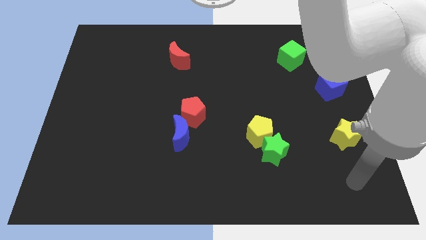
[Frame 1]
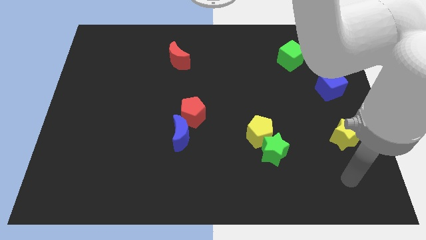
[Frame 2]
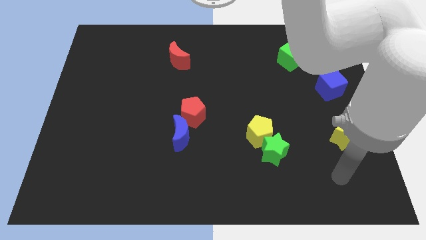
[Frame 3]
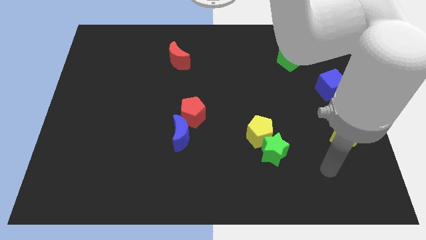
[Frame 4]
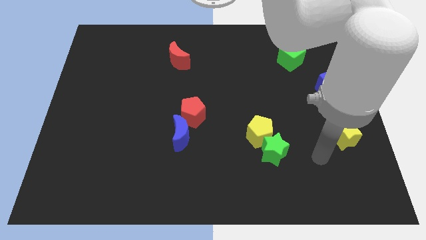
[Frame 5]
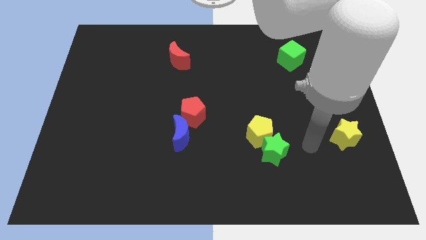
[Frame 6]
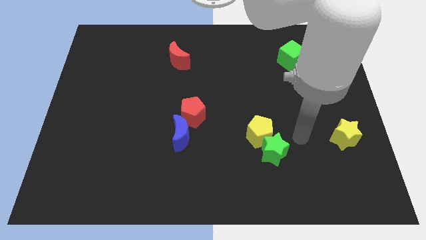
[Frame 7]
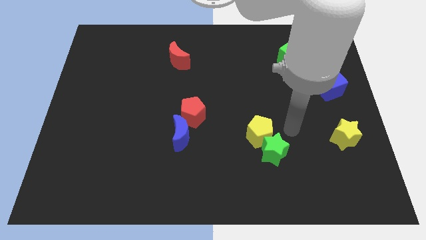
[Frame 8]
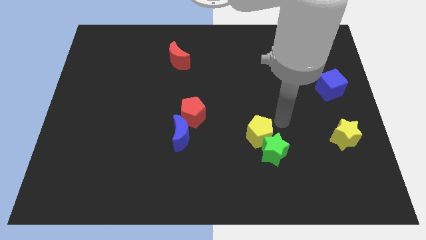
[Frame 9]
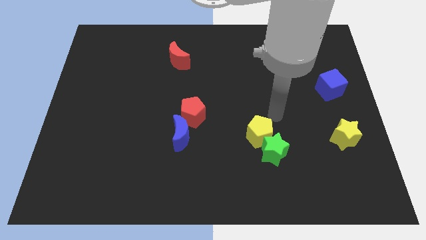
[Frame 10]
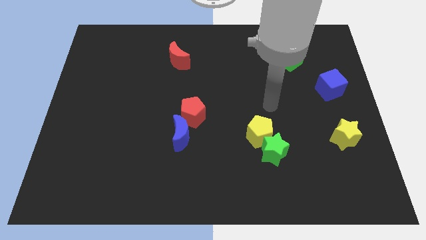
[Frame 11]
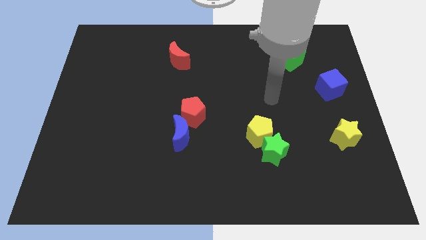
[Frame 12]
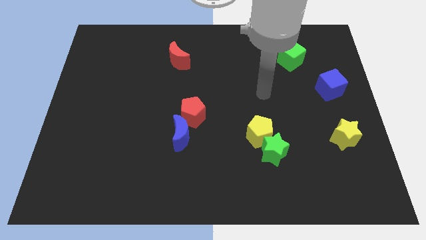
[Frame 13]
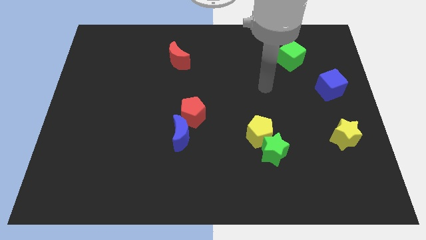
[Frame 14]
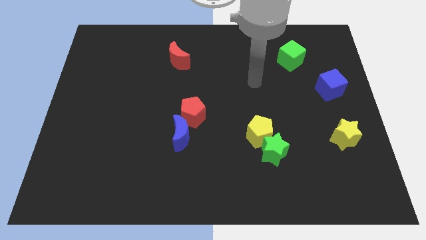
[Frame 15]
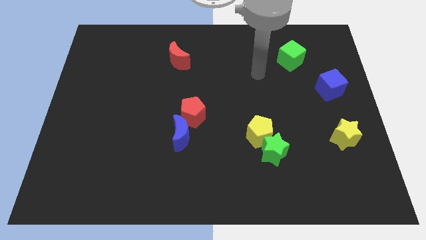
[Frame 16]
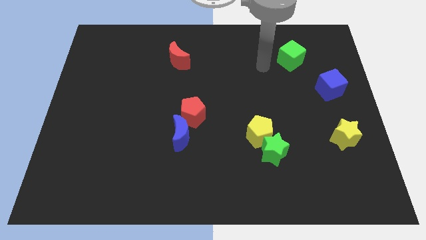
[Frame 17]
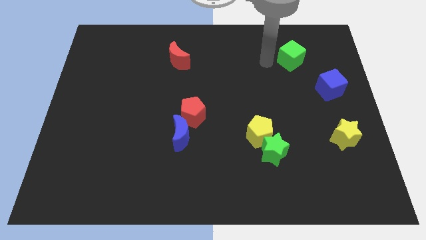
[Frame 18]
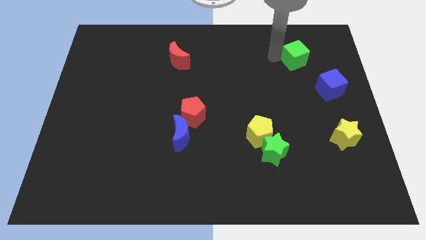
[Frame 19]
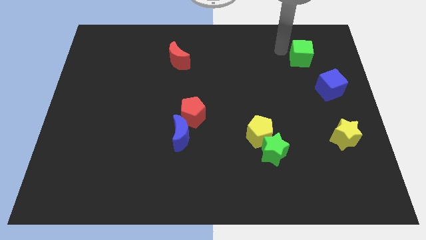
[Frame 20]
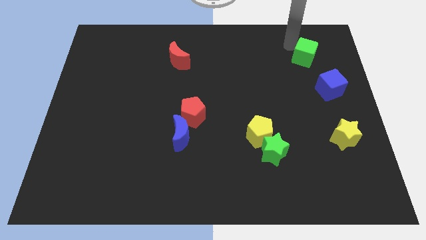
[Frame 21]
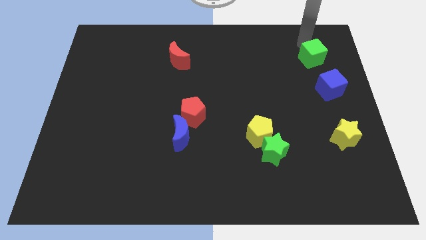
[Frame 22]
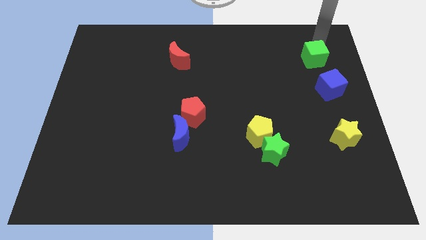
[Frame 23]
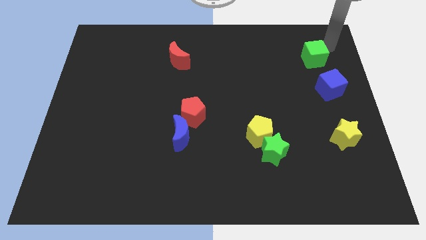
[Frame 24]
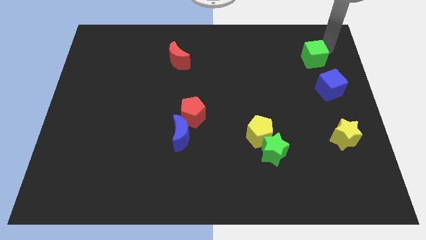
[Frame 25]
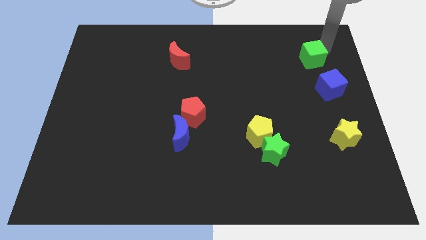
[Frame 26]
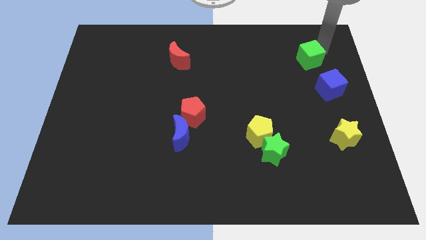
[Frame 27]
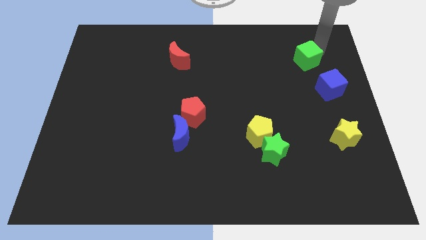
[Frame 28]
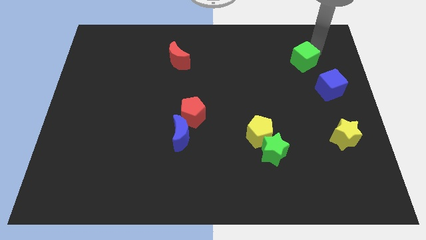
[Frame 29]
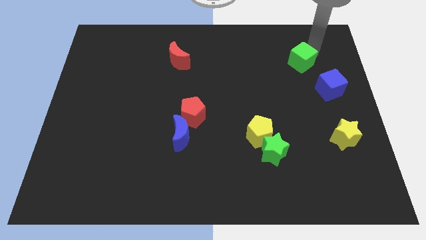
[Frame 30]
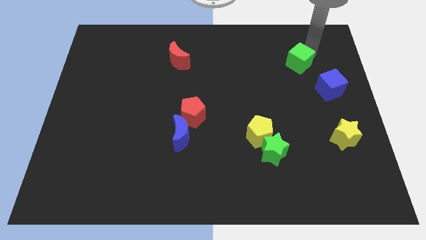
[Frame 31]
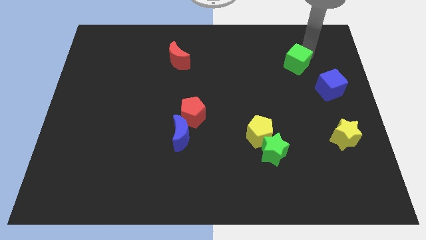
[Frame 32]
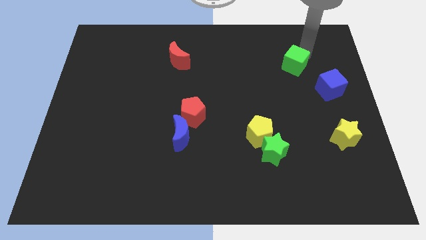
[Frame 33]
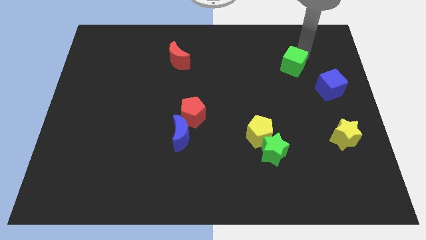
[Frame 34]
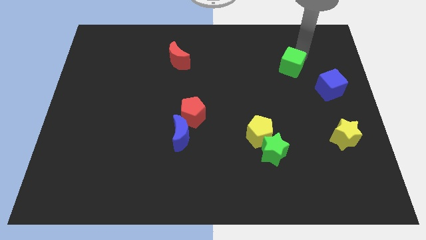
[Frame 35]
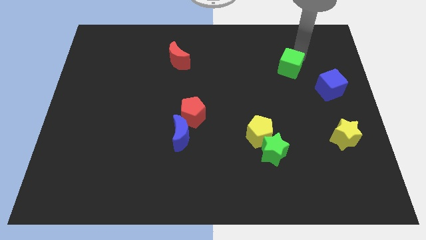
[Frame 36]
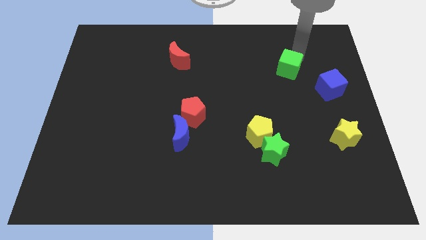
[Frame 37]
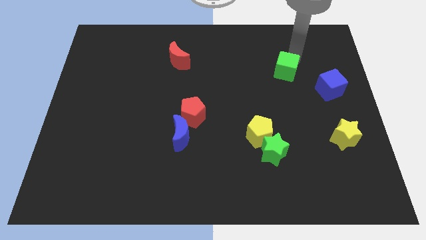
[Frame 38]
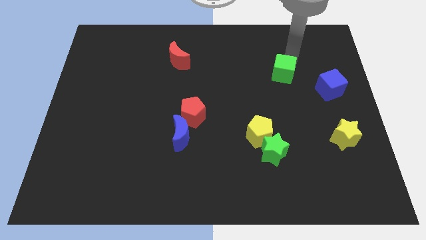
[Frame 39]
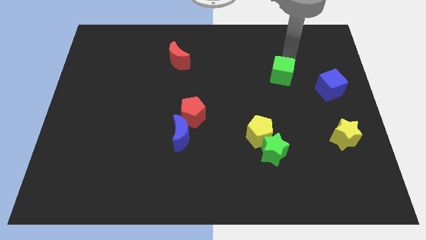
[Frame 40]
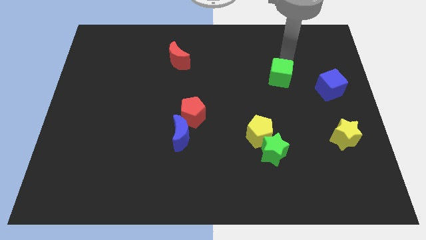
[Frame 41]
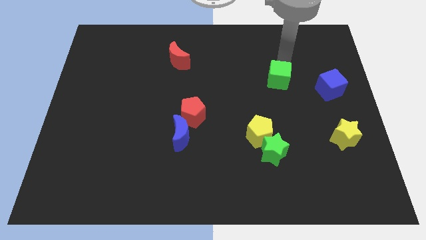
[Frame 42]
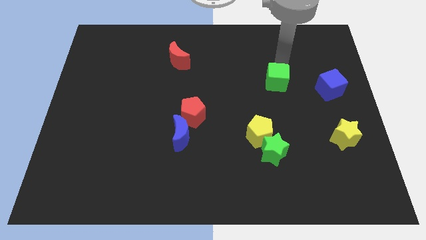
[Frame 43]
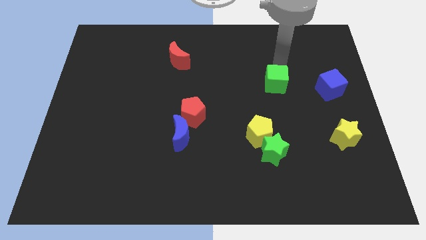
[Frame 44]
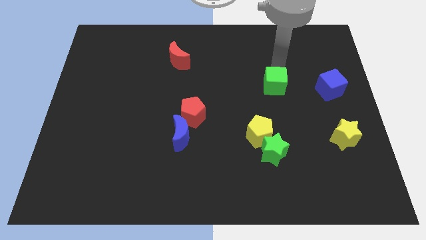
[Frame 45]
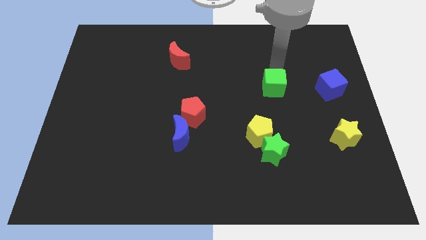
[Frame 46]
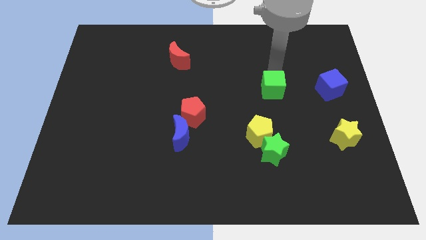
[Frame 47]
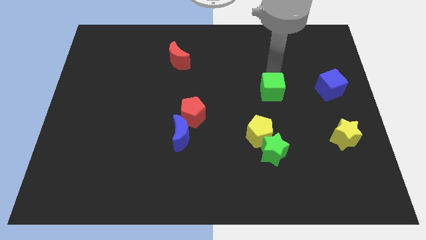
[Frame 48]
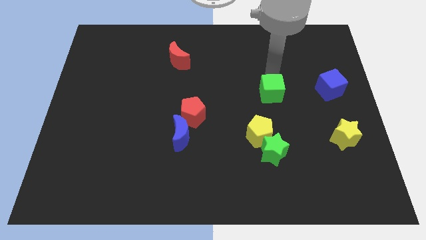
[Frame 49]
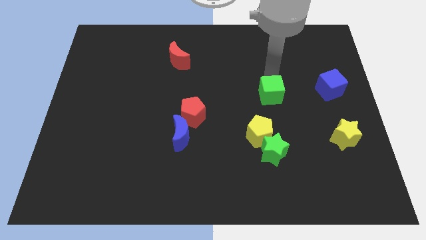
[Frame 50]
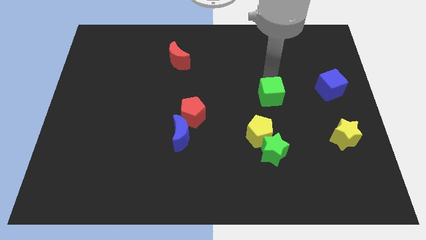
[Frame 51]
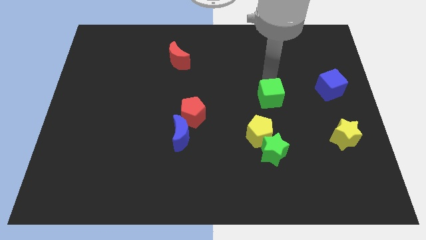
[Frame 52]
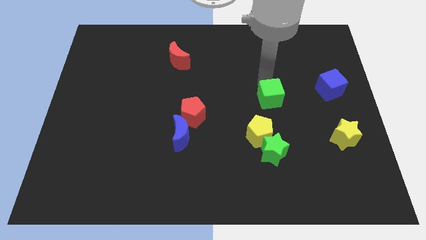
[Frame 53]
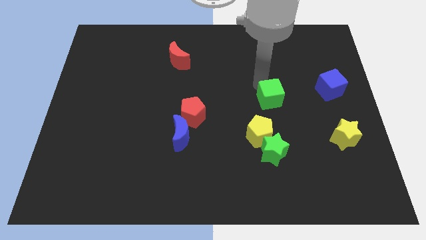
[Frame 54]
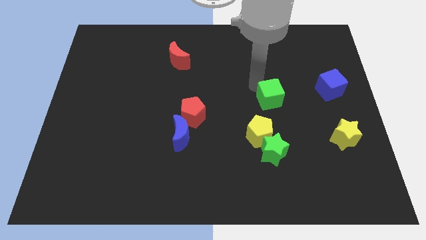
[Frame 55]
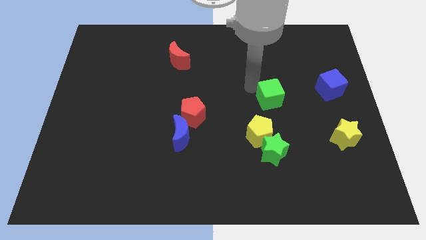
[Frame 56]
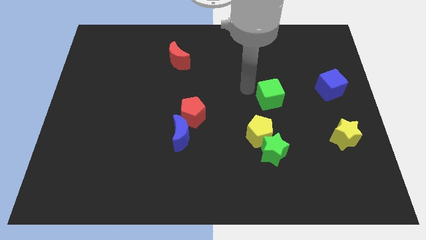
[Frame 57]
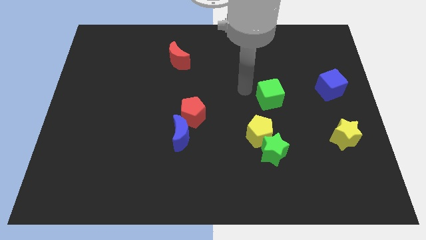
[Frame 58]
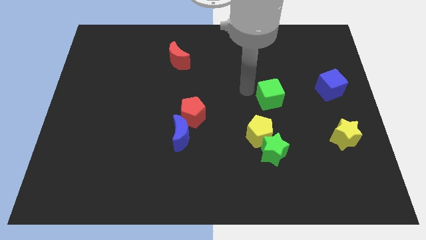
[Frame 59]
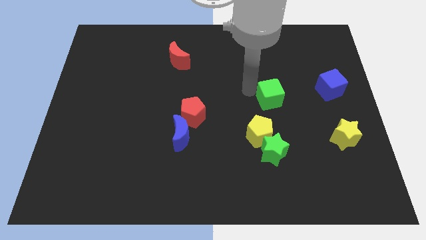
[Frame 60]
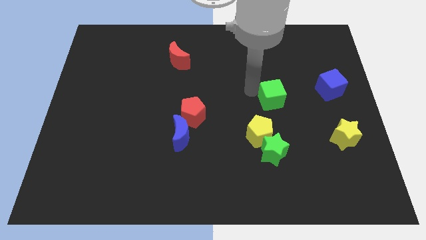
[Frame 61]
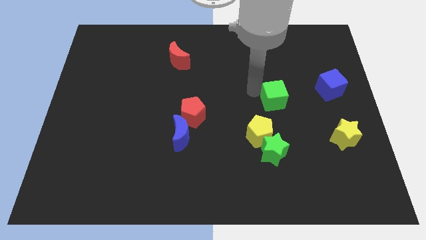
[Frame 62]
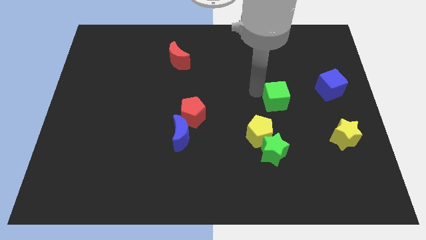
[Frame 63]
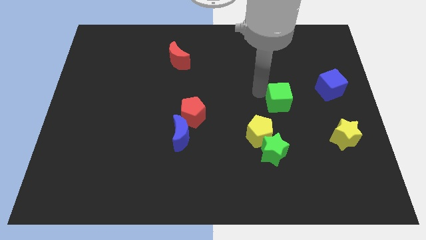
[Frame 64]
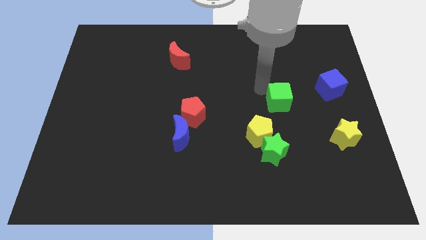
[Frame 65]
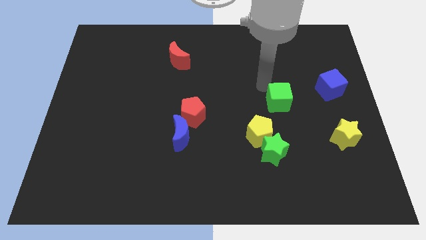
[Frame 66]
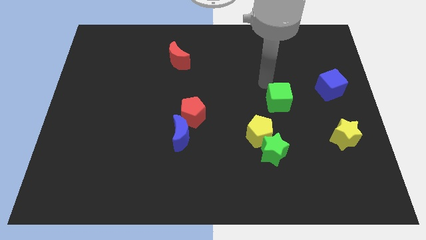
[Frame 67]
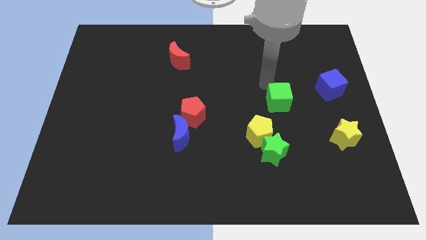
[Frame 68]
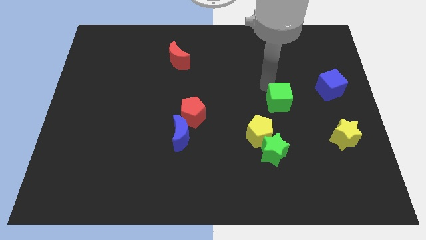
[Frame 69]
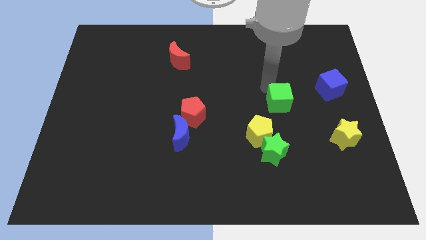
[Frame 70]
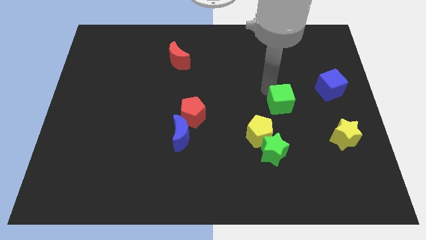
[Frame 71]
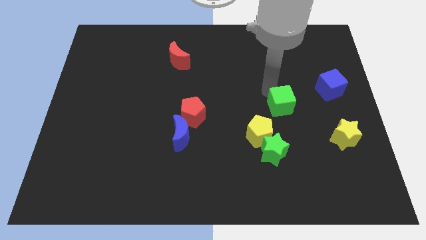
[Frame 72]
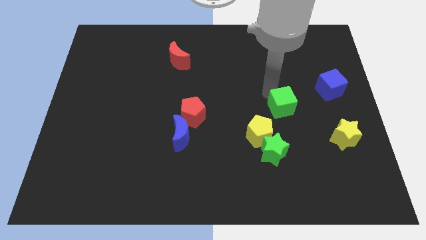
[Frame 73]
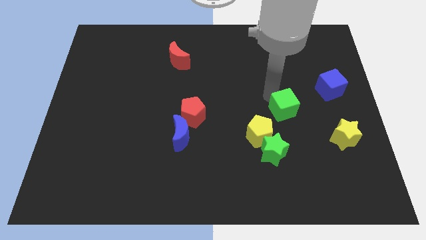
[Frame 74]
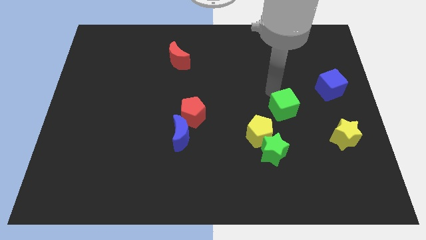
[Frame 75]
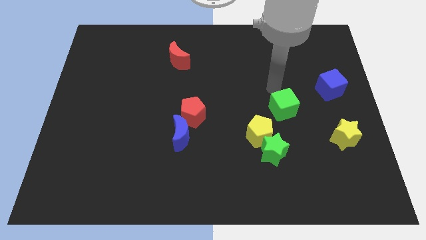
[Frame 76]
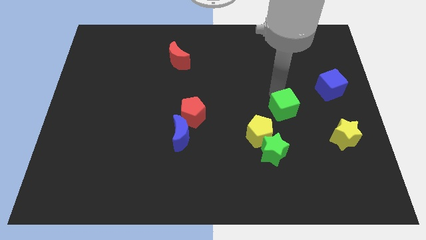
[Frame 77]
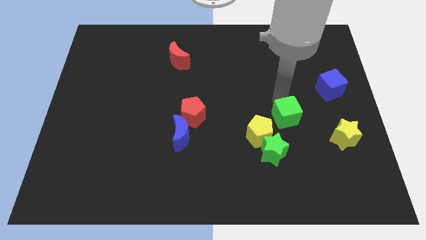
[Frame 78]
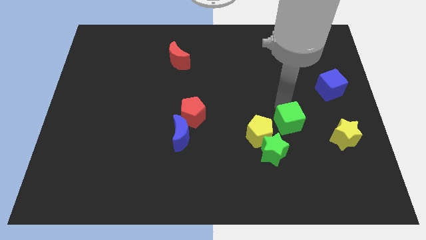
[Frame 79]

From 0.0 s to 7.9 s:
slide the green cube to the left side of the yellow star

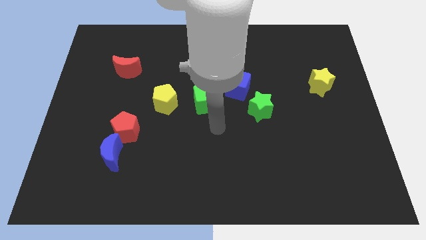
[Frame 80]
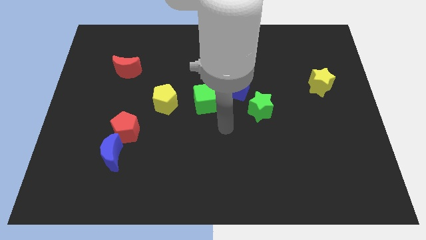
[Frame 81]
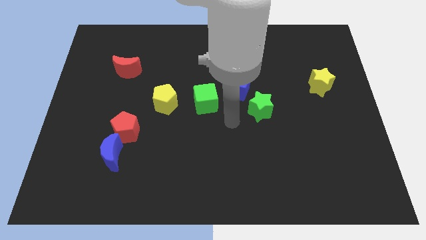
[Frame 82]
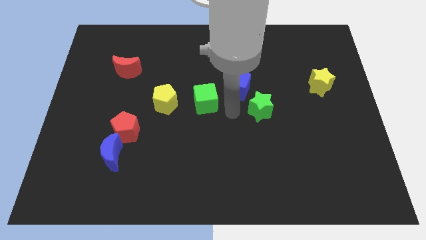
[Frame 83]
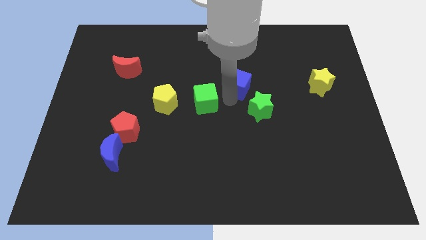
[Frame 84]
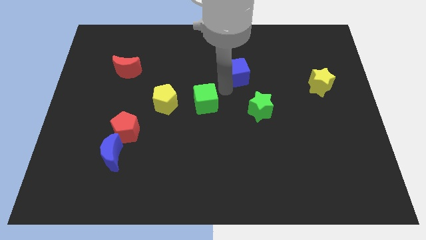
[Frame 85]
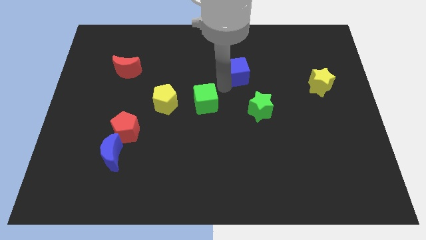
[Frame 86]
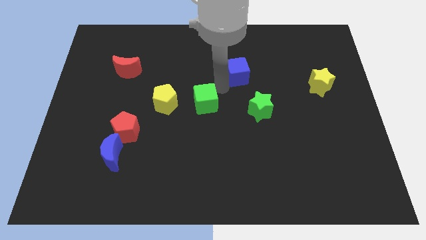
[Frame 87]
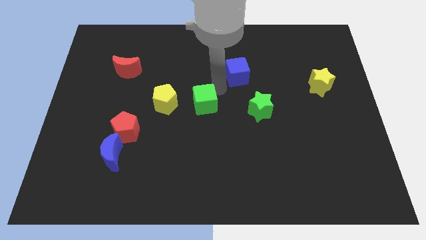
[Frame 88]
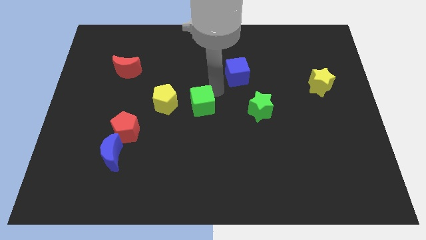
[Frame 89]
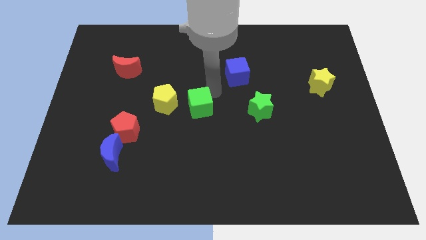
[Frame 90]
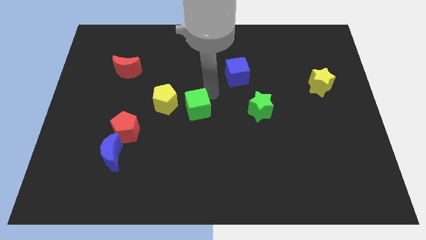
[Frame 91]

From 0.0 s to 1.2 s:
move the green cube diagonally down and to the right of the yellow pentagon
